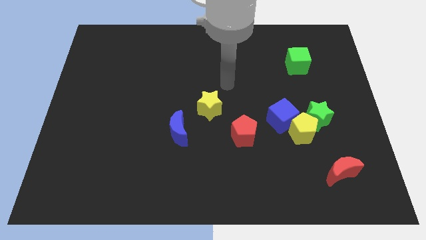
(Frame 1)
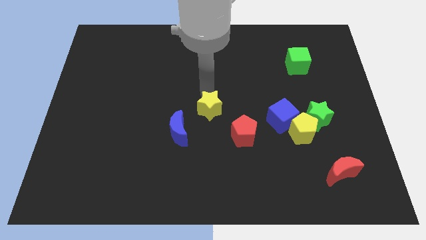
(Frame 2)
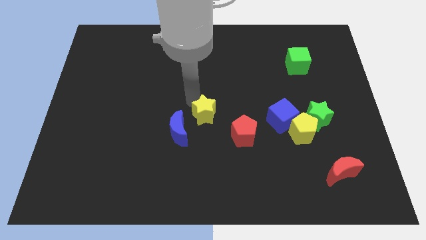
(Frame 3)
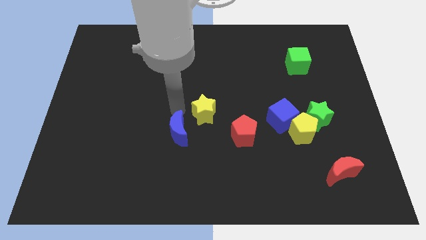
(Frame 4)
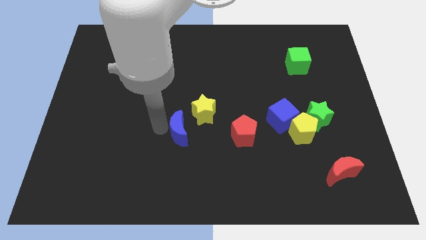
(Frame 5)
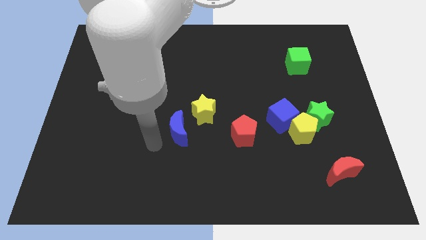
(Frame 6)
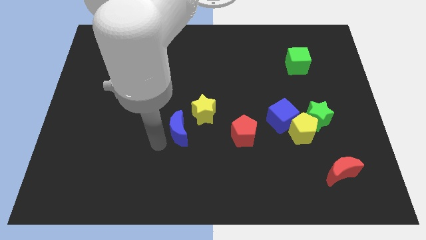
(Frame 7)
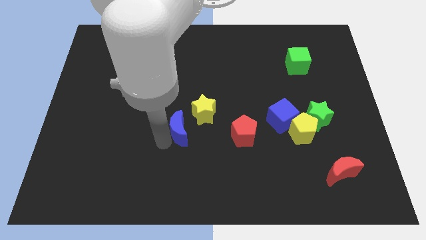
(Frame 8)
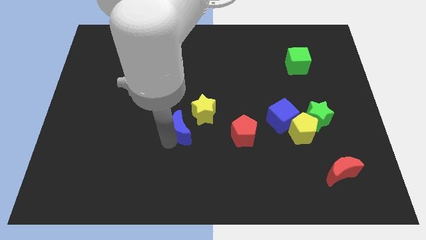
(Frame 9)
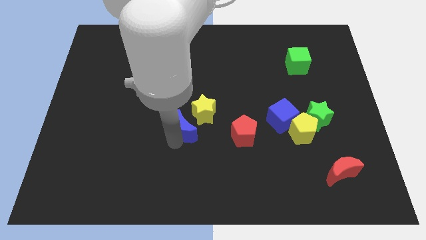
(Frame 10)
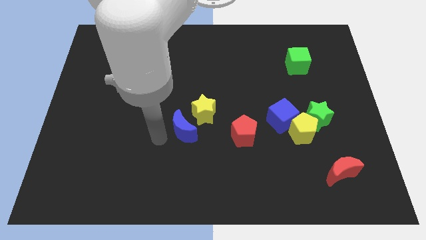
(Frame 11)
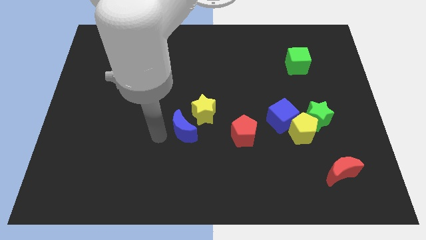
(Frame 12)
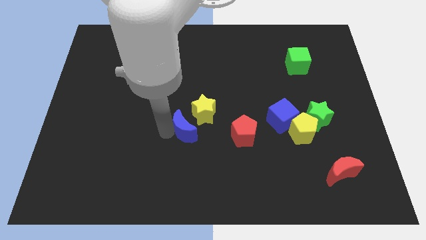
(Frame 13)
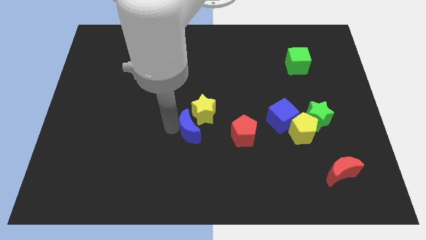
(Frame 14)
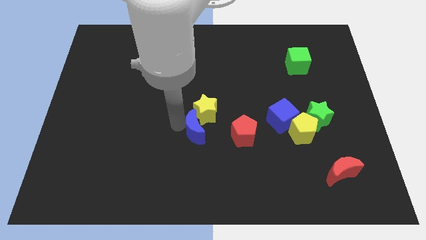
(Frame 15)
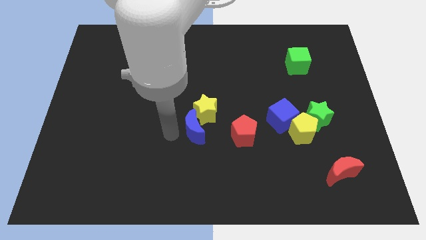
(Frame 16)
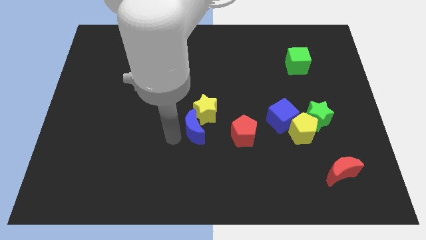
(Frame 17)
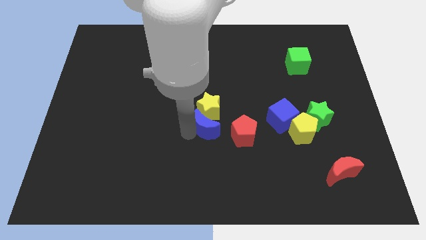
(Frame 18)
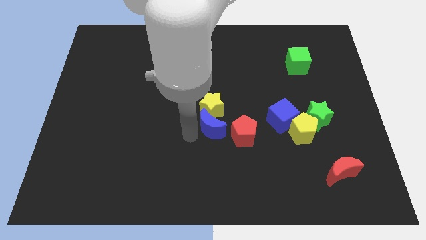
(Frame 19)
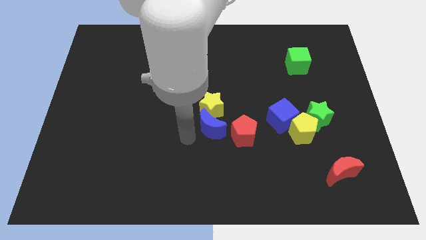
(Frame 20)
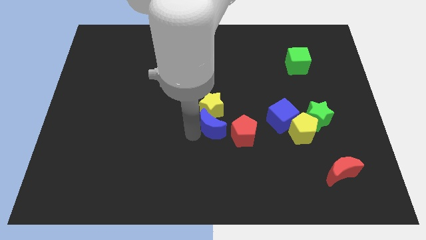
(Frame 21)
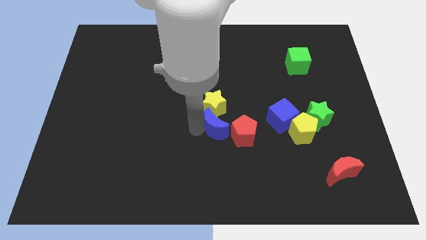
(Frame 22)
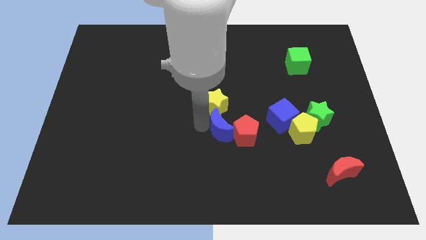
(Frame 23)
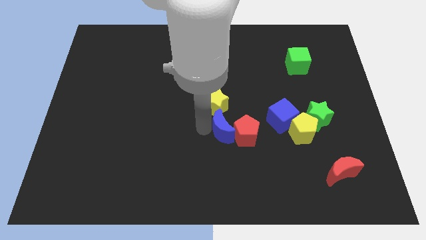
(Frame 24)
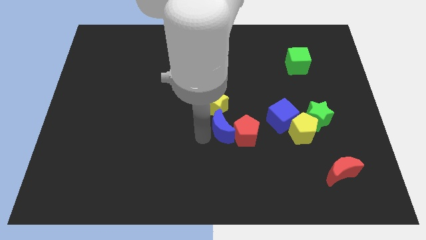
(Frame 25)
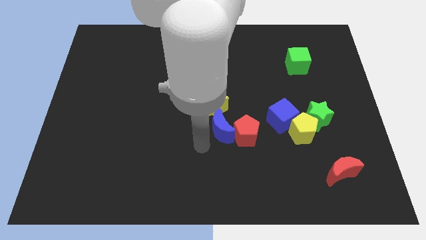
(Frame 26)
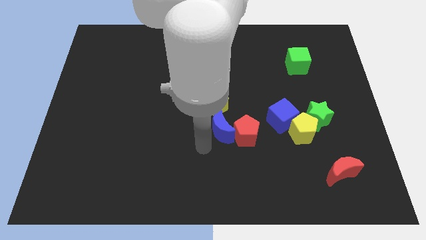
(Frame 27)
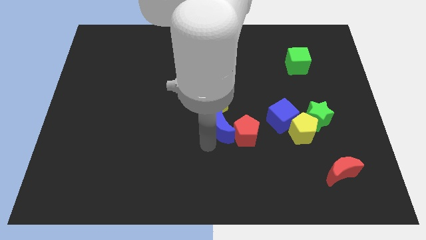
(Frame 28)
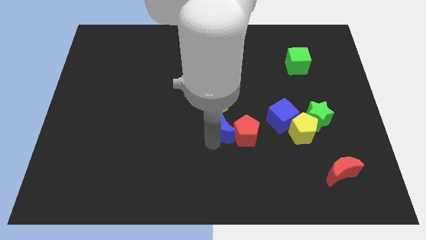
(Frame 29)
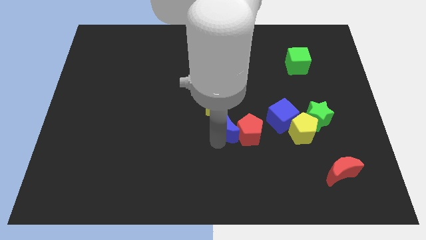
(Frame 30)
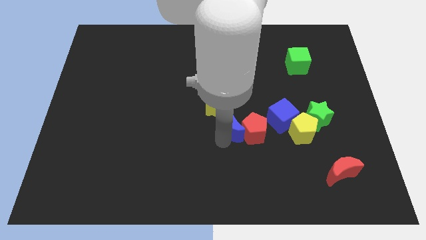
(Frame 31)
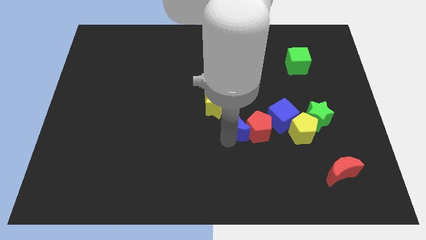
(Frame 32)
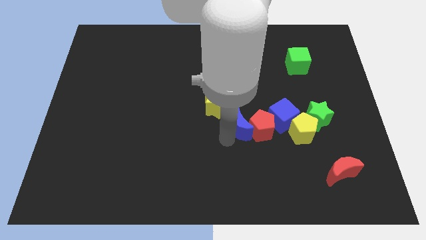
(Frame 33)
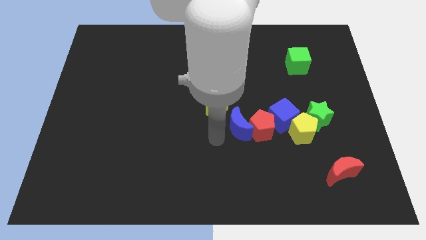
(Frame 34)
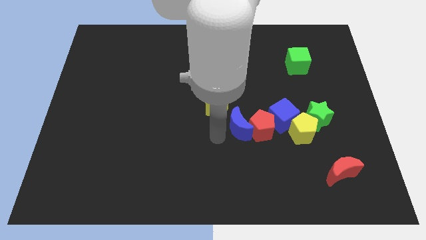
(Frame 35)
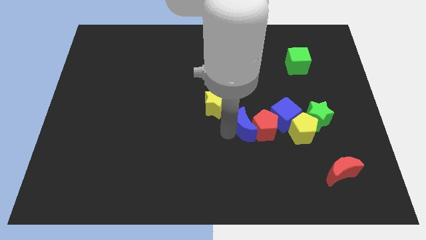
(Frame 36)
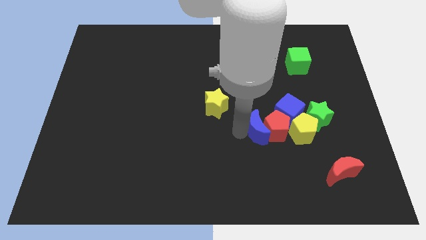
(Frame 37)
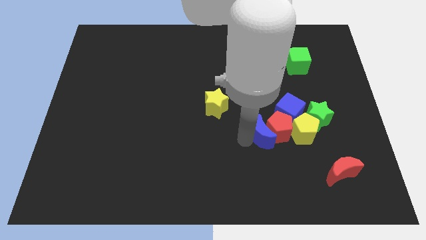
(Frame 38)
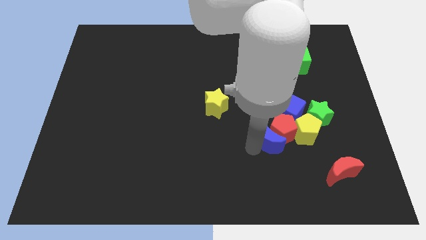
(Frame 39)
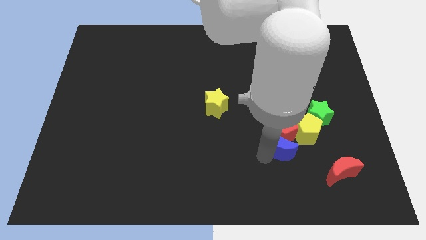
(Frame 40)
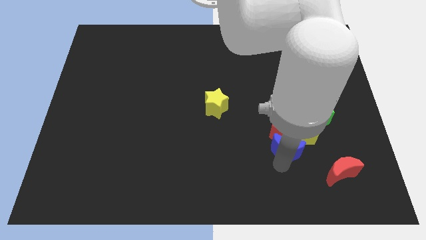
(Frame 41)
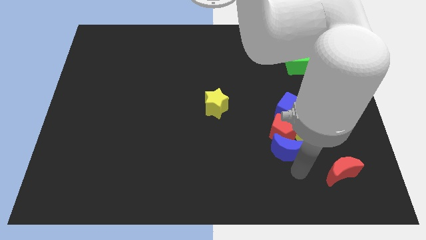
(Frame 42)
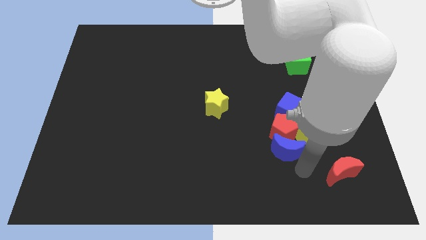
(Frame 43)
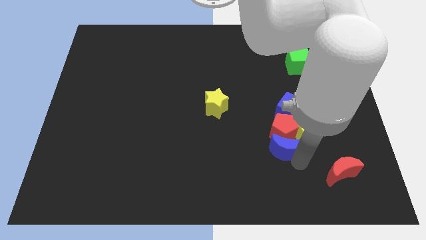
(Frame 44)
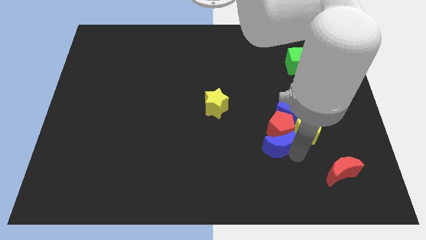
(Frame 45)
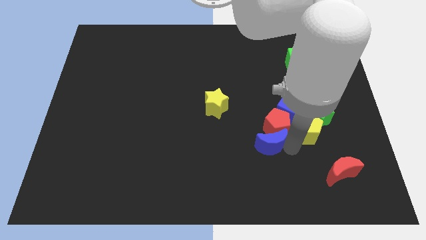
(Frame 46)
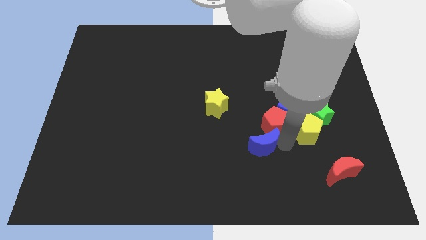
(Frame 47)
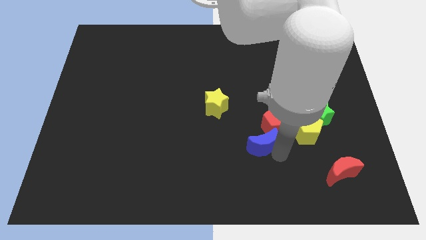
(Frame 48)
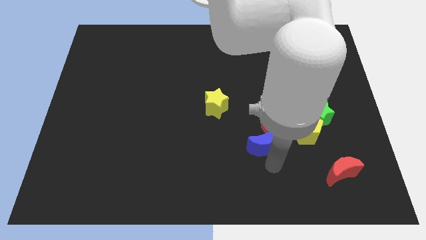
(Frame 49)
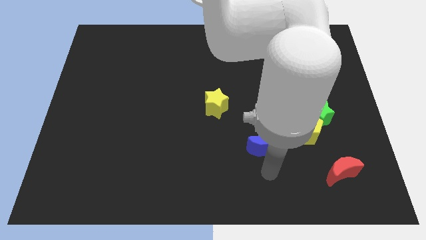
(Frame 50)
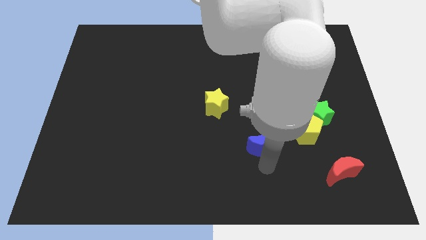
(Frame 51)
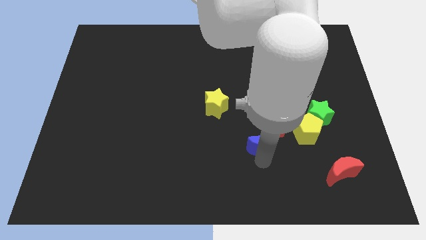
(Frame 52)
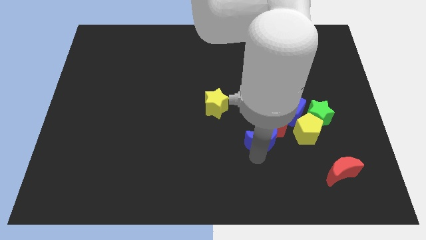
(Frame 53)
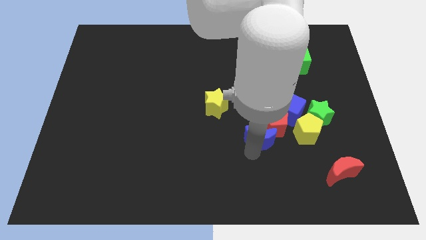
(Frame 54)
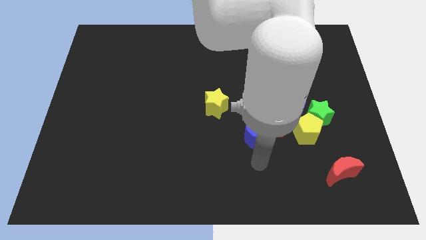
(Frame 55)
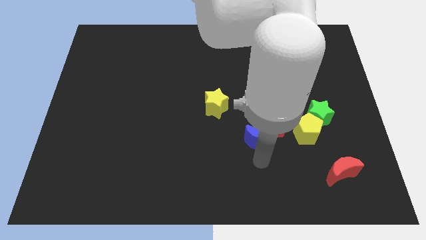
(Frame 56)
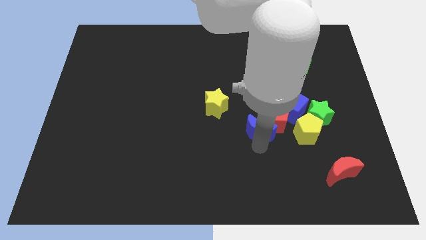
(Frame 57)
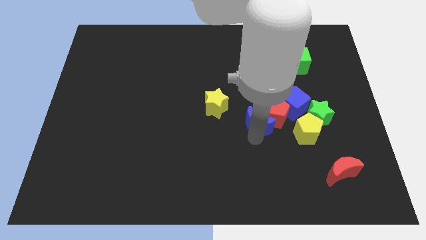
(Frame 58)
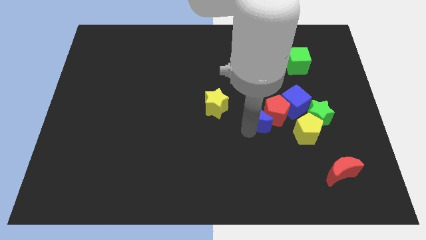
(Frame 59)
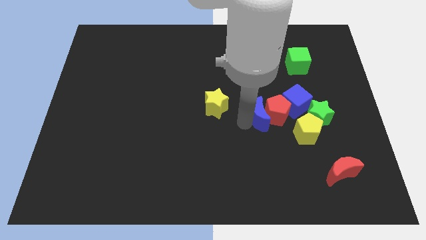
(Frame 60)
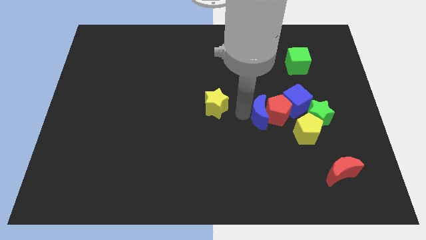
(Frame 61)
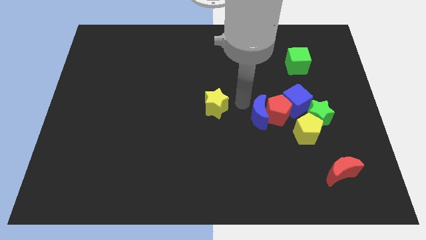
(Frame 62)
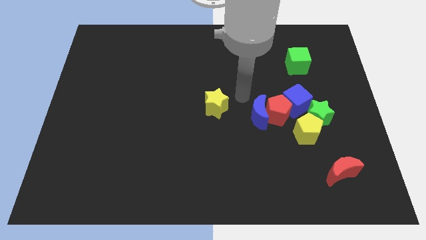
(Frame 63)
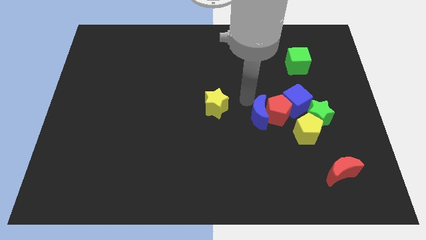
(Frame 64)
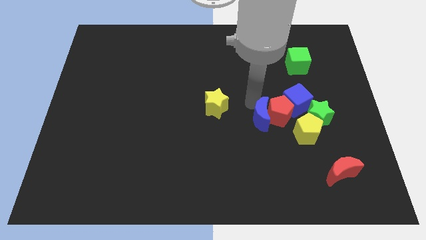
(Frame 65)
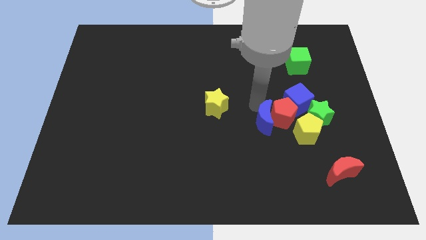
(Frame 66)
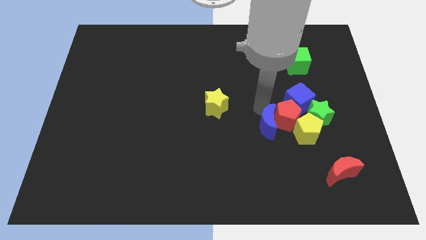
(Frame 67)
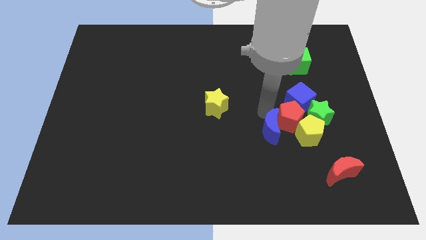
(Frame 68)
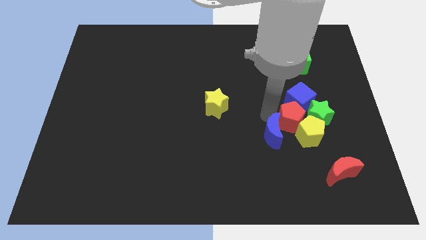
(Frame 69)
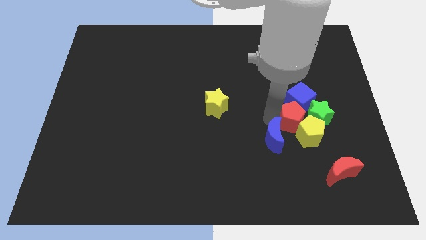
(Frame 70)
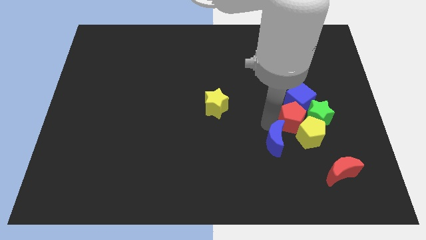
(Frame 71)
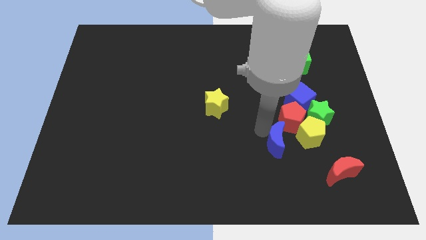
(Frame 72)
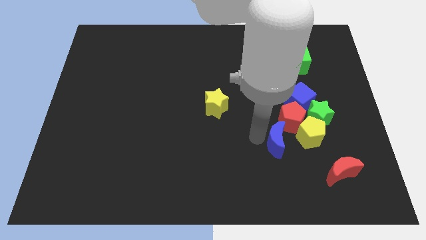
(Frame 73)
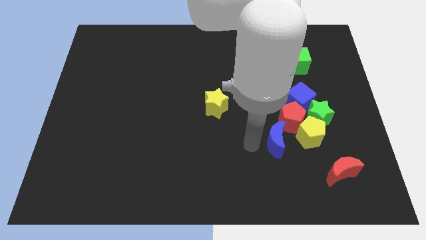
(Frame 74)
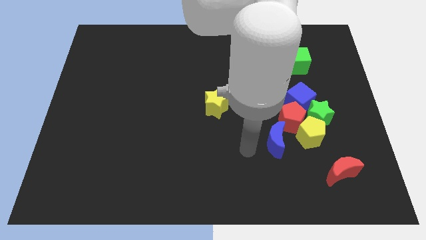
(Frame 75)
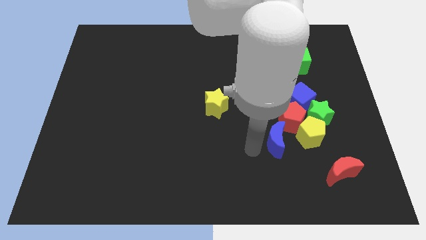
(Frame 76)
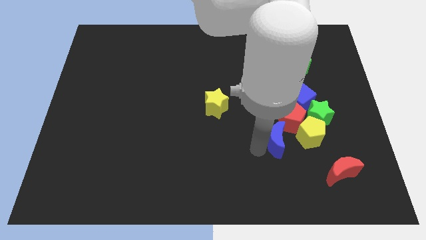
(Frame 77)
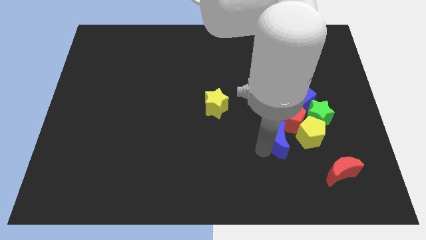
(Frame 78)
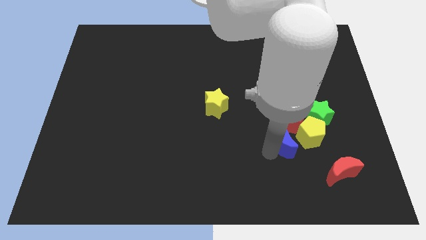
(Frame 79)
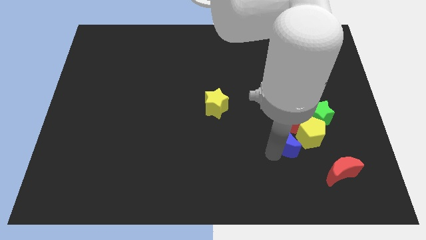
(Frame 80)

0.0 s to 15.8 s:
put the blue moon to the yellow pentagon
